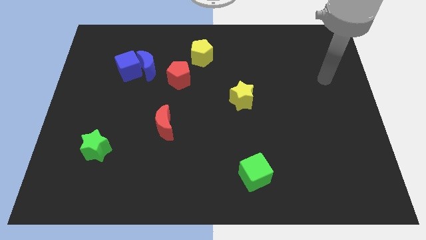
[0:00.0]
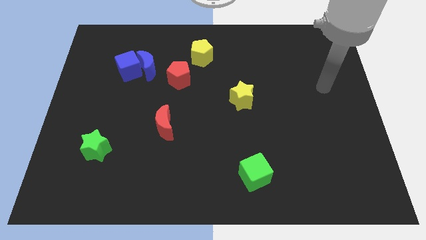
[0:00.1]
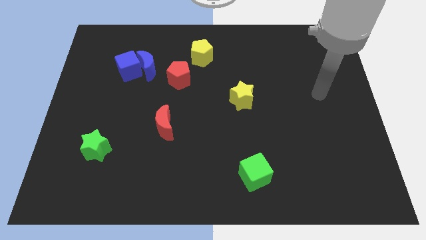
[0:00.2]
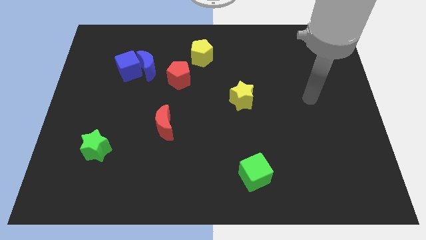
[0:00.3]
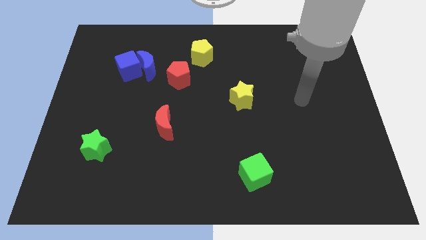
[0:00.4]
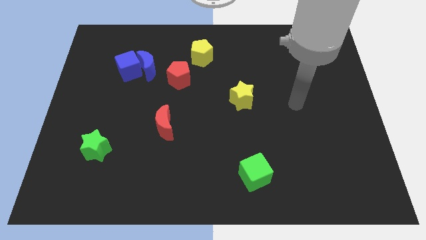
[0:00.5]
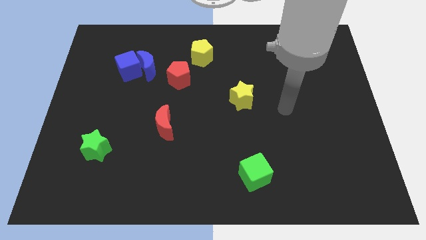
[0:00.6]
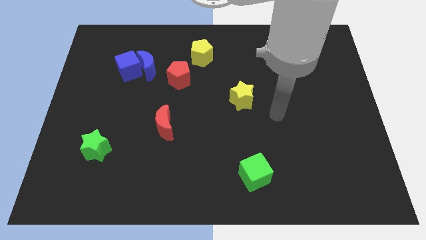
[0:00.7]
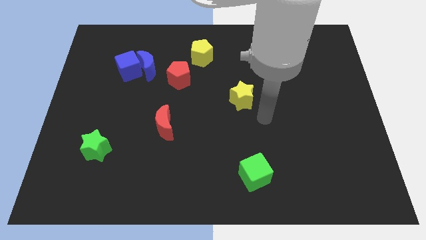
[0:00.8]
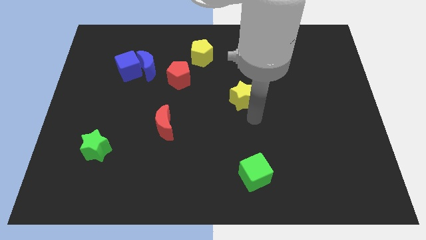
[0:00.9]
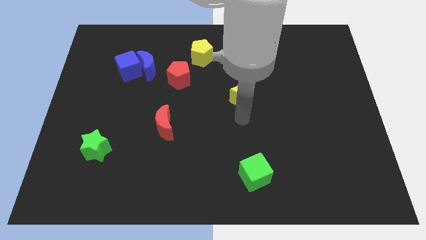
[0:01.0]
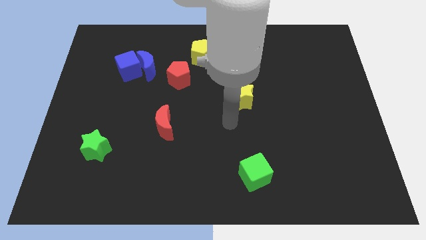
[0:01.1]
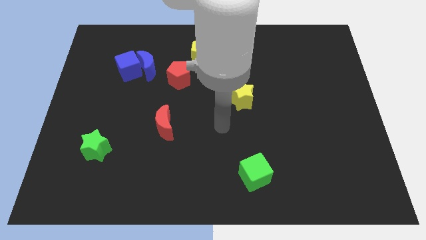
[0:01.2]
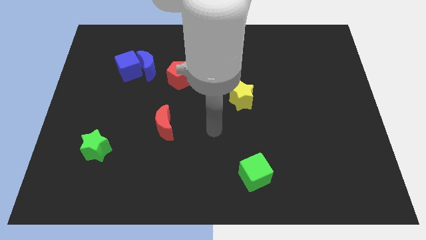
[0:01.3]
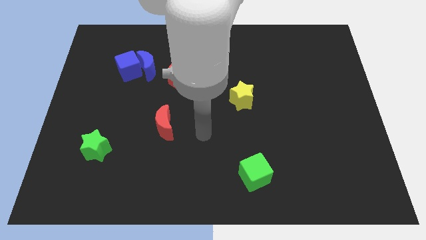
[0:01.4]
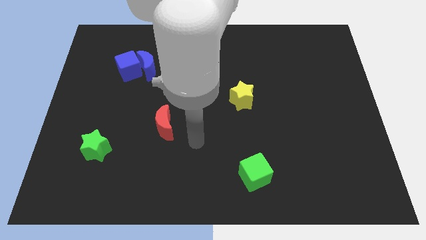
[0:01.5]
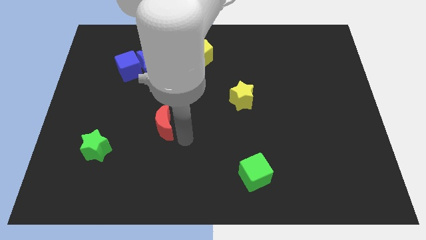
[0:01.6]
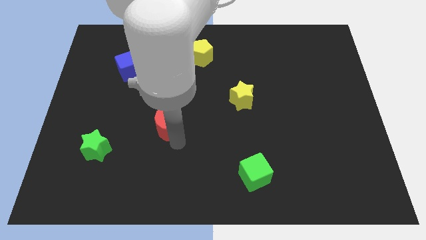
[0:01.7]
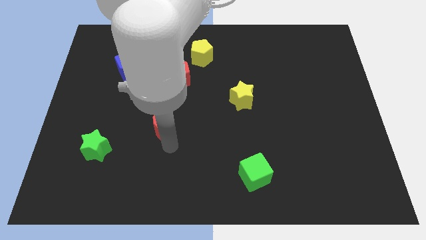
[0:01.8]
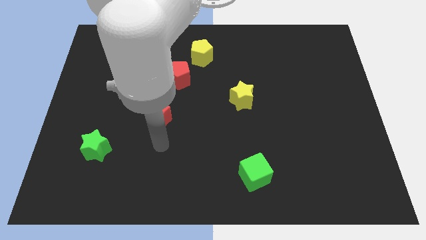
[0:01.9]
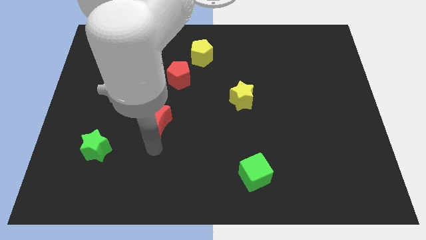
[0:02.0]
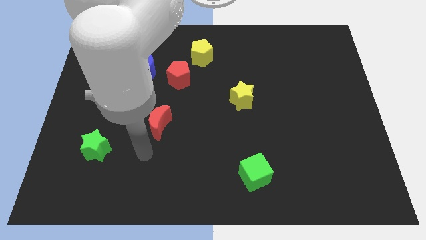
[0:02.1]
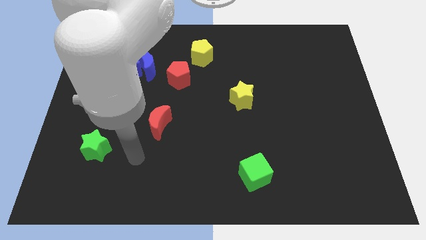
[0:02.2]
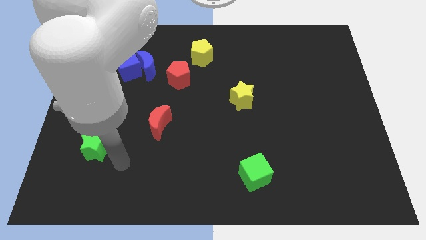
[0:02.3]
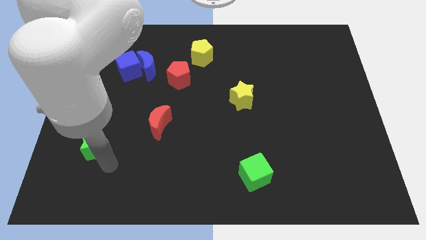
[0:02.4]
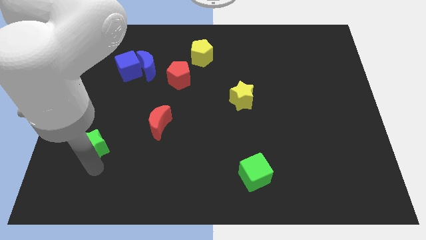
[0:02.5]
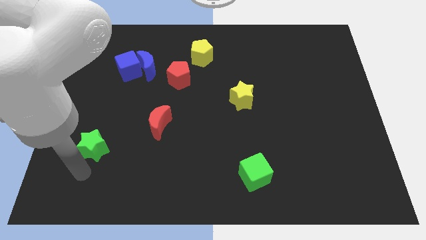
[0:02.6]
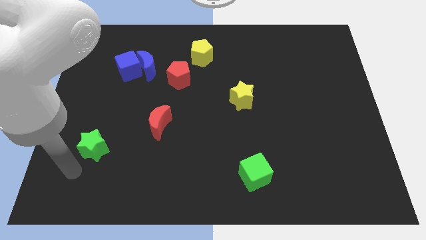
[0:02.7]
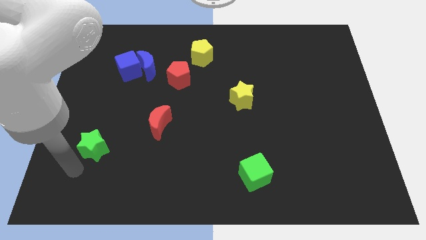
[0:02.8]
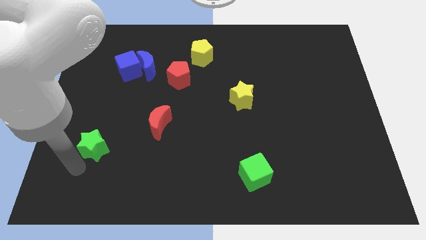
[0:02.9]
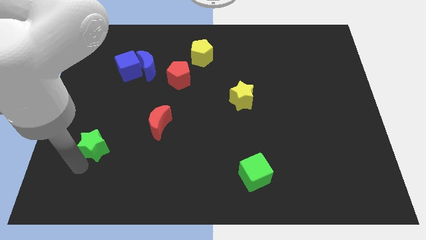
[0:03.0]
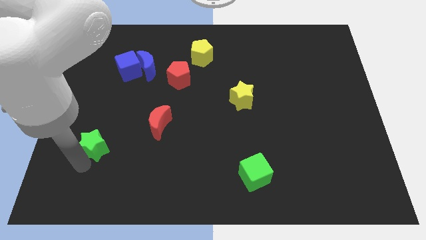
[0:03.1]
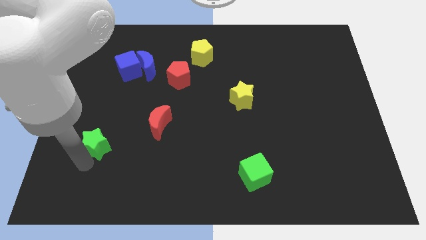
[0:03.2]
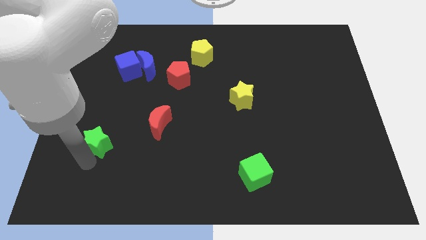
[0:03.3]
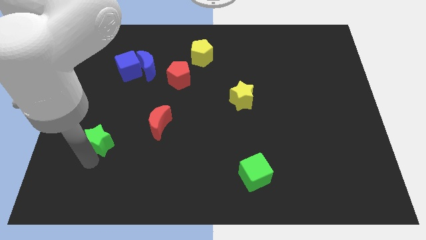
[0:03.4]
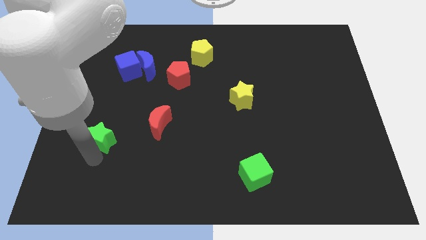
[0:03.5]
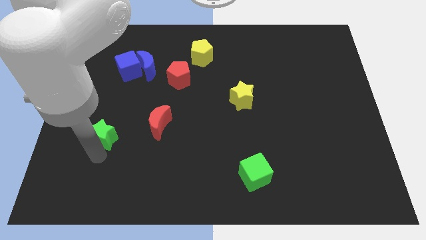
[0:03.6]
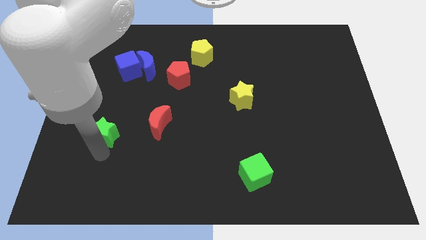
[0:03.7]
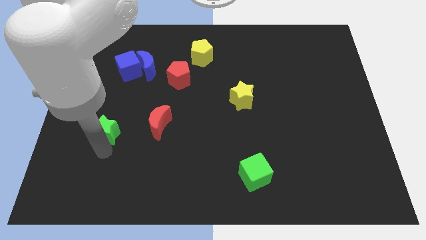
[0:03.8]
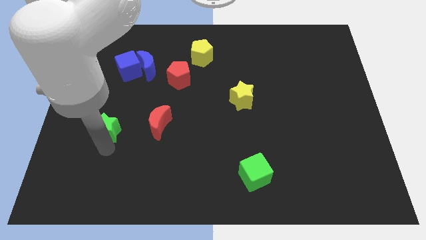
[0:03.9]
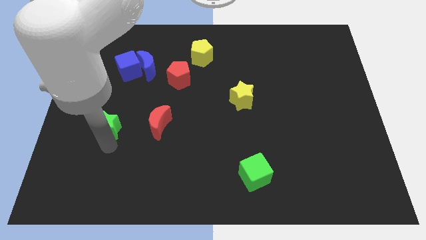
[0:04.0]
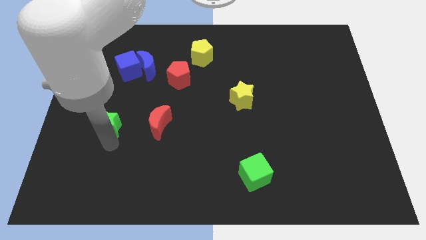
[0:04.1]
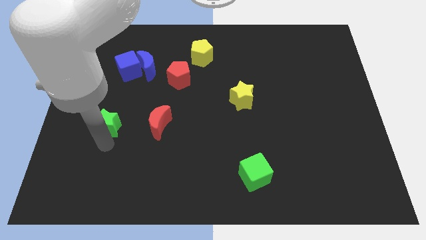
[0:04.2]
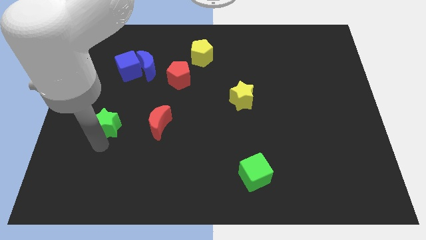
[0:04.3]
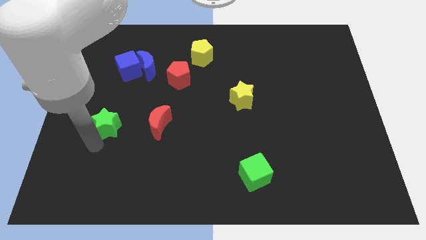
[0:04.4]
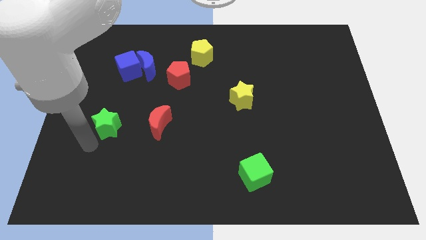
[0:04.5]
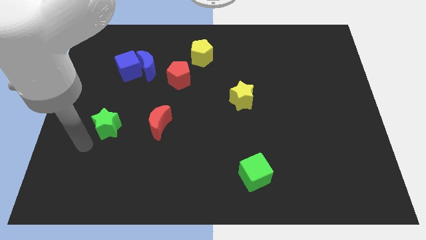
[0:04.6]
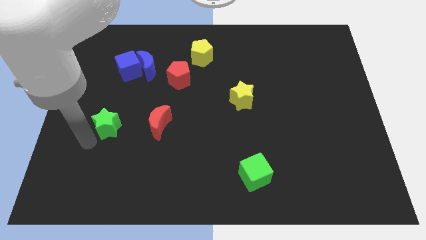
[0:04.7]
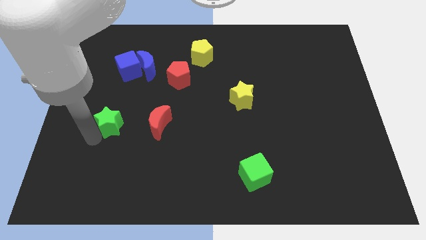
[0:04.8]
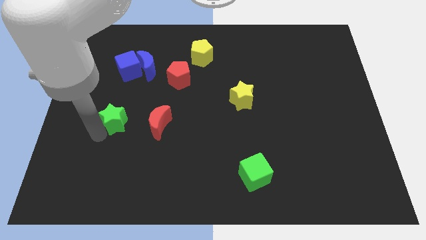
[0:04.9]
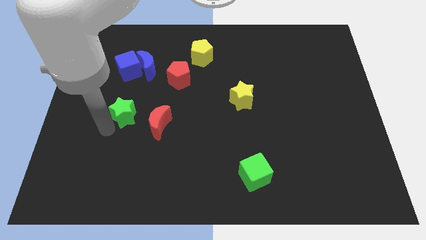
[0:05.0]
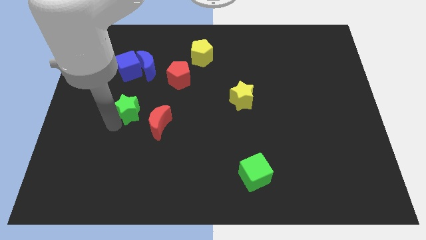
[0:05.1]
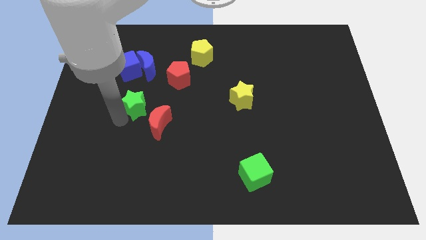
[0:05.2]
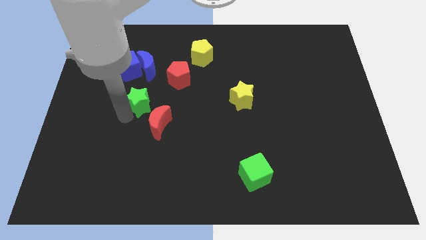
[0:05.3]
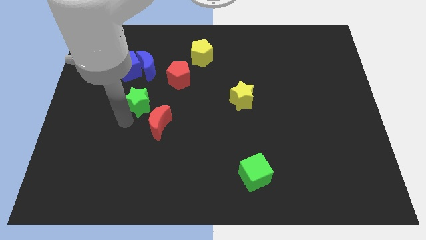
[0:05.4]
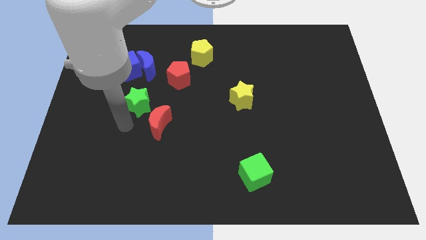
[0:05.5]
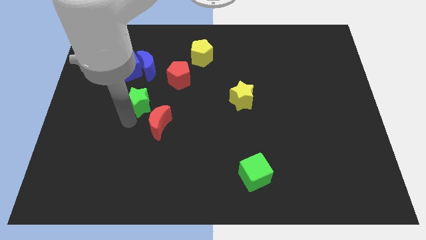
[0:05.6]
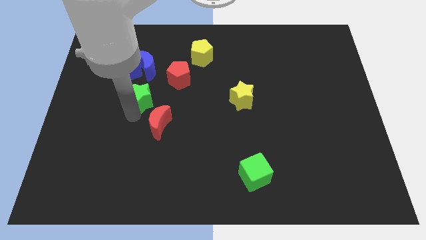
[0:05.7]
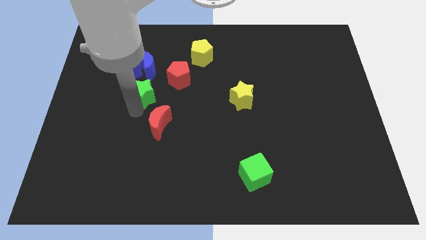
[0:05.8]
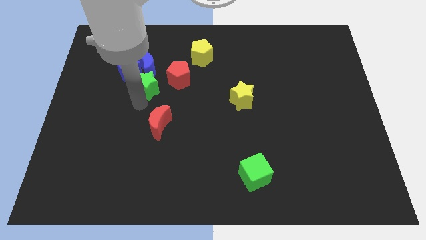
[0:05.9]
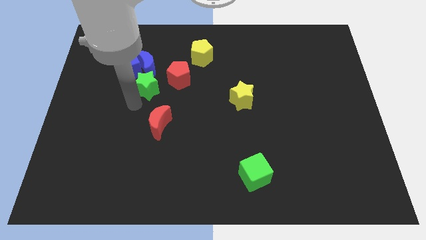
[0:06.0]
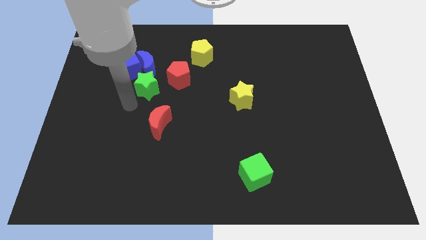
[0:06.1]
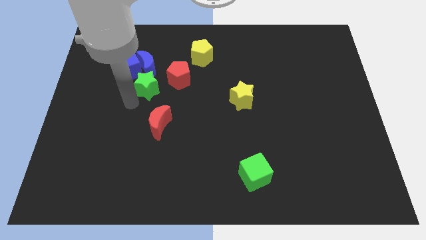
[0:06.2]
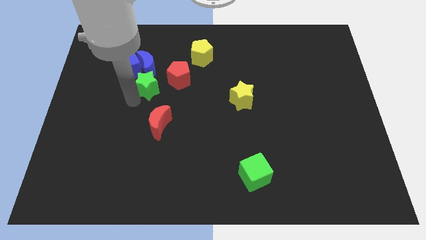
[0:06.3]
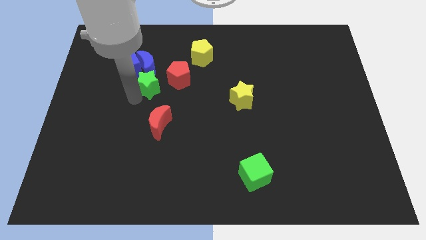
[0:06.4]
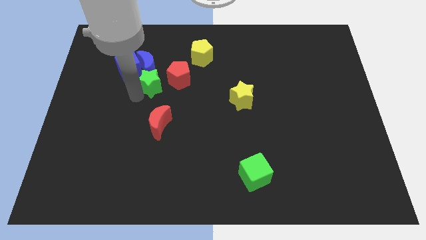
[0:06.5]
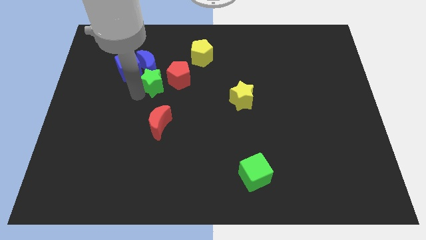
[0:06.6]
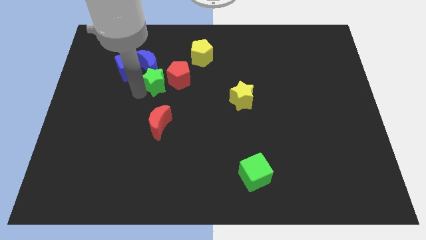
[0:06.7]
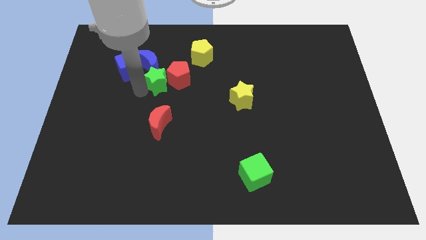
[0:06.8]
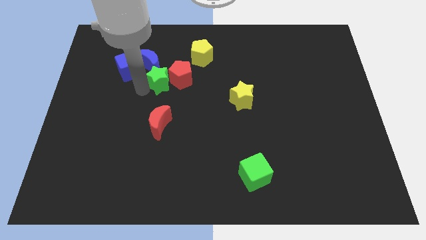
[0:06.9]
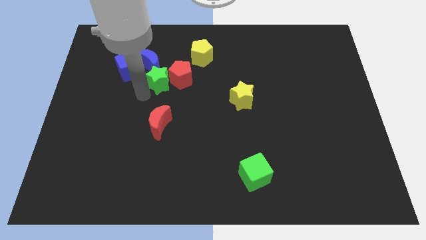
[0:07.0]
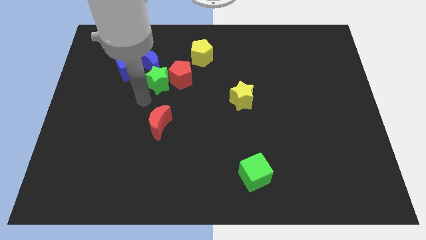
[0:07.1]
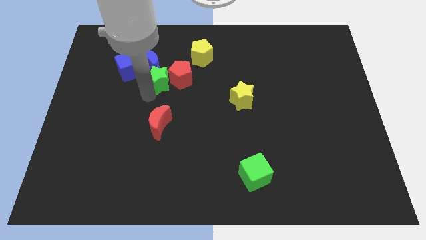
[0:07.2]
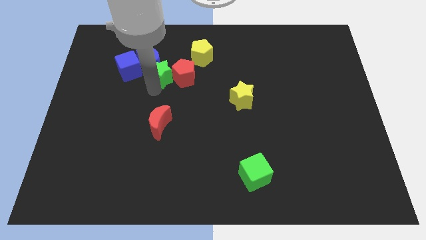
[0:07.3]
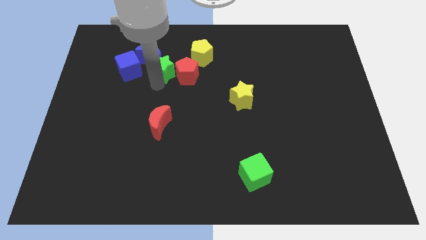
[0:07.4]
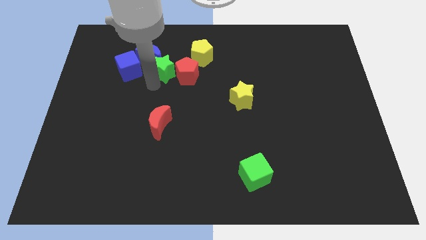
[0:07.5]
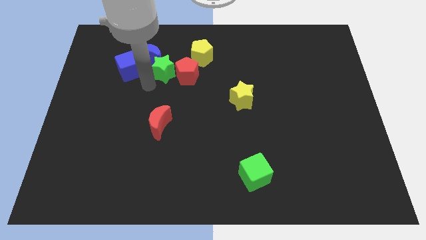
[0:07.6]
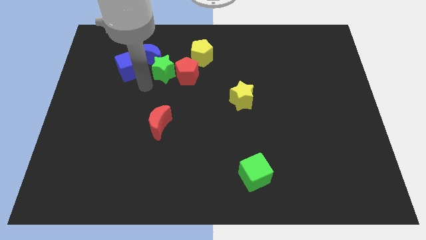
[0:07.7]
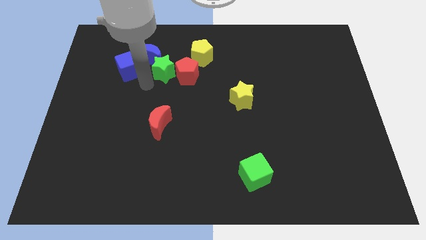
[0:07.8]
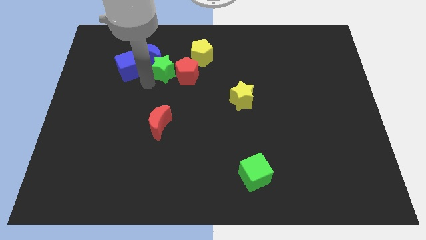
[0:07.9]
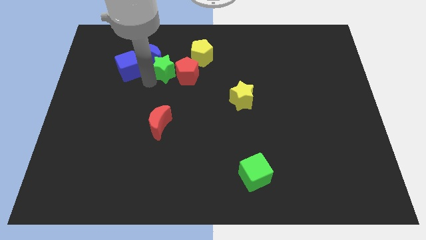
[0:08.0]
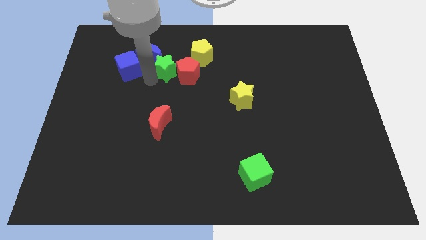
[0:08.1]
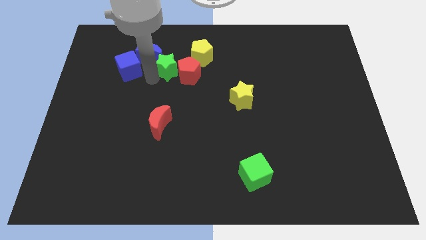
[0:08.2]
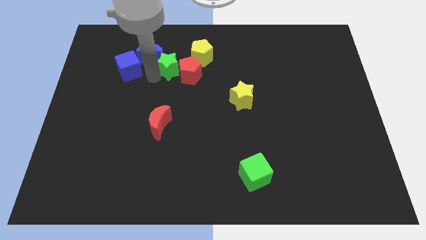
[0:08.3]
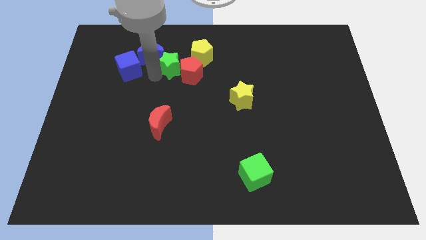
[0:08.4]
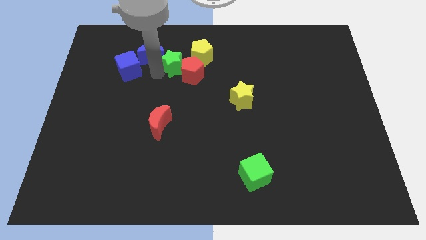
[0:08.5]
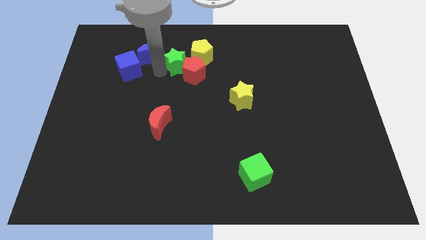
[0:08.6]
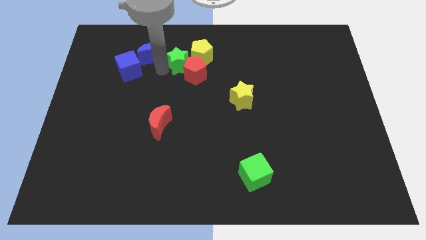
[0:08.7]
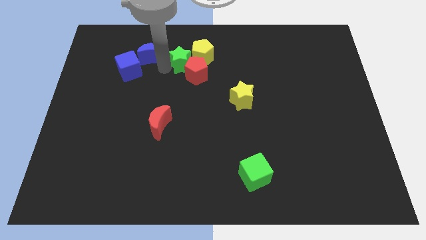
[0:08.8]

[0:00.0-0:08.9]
move the green star close to the yellow pentagon
